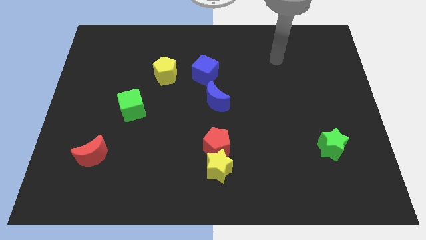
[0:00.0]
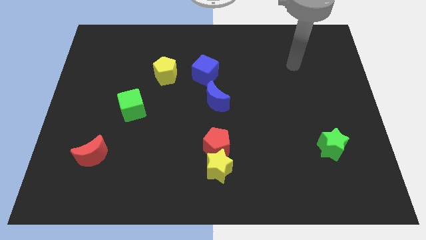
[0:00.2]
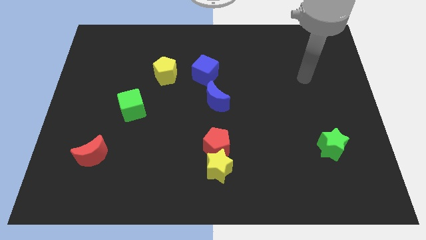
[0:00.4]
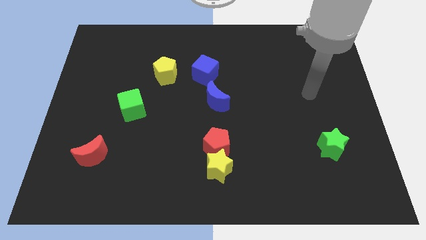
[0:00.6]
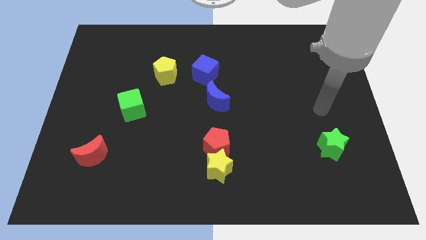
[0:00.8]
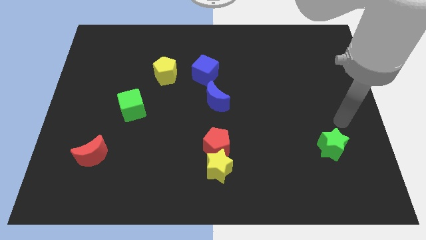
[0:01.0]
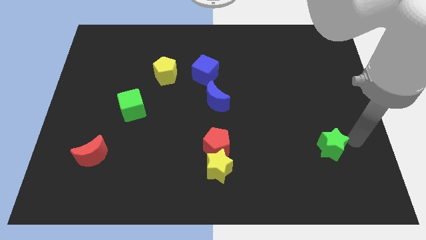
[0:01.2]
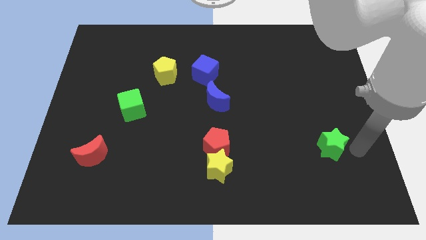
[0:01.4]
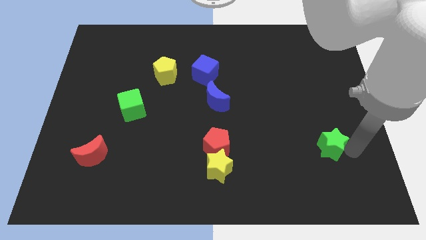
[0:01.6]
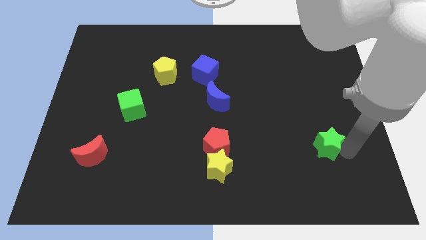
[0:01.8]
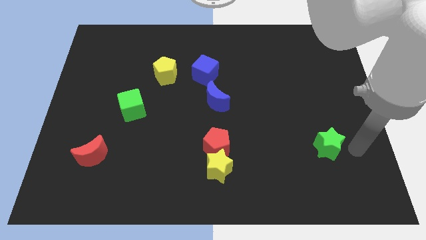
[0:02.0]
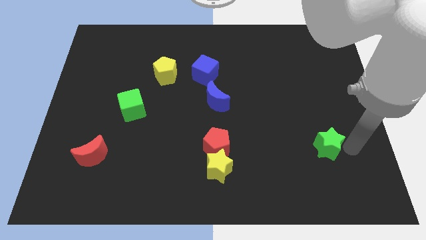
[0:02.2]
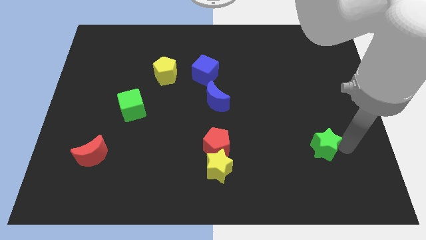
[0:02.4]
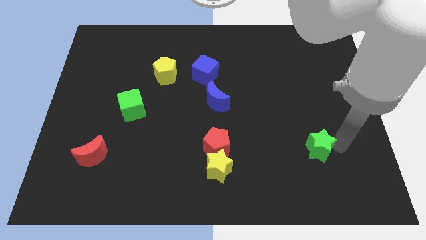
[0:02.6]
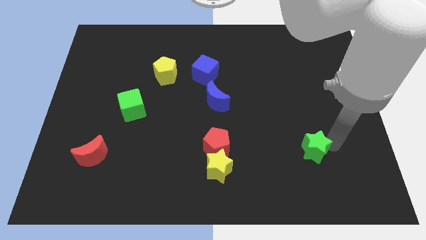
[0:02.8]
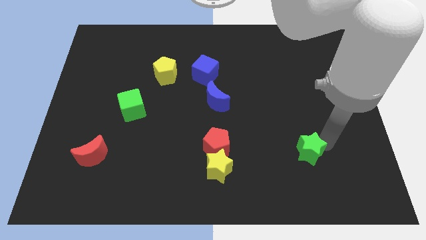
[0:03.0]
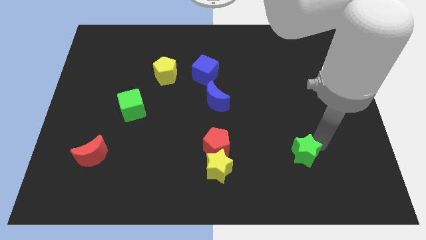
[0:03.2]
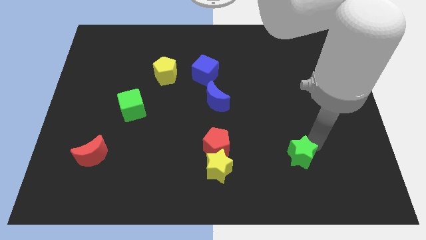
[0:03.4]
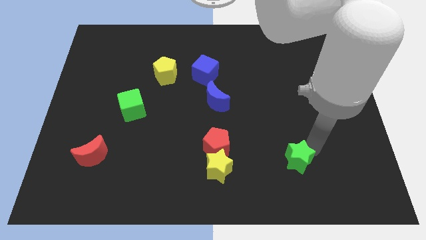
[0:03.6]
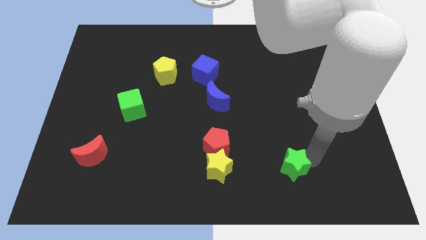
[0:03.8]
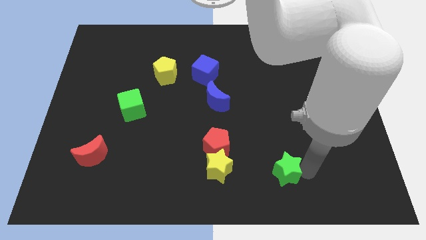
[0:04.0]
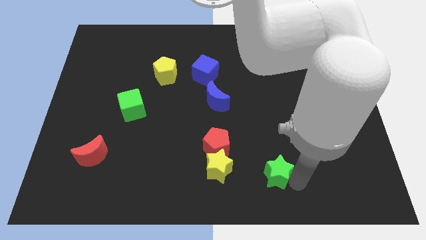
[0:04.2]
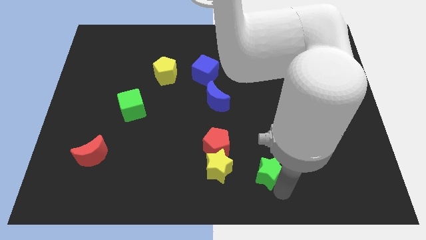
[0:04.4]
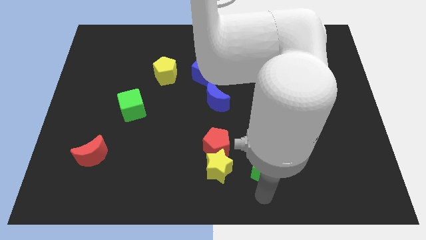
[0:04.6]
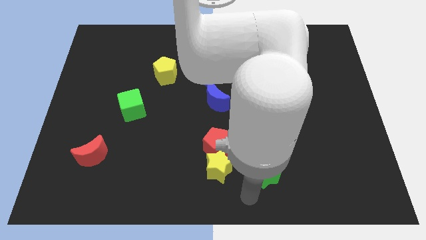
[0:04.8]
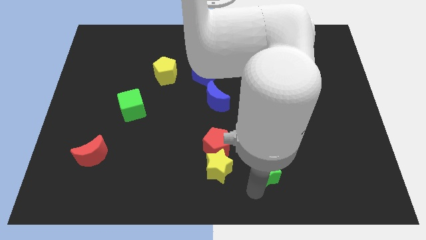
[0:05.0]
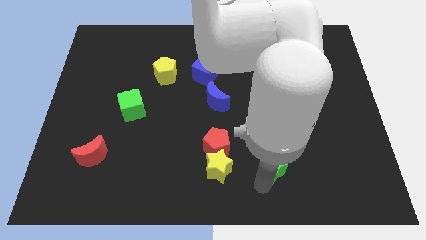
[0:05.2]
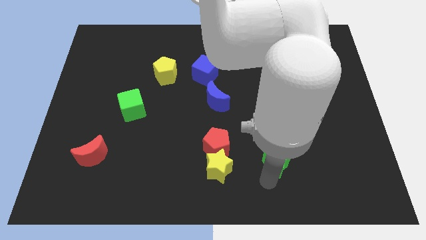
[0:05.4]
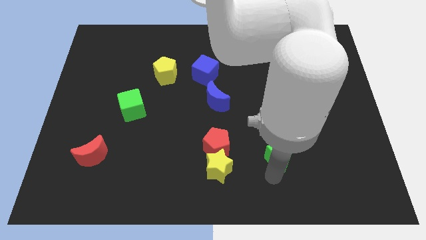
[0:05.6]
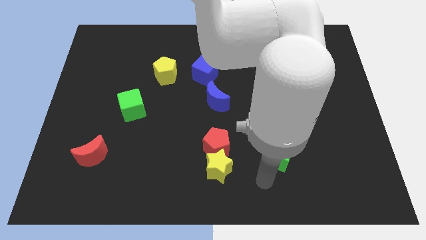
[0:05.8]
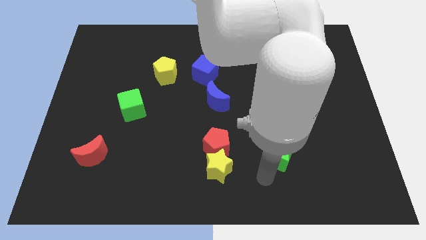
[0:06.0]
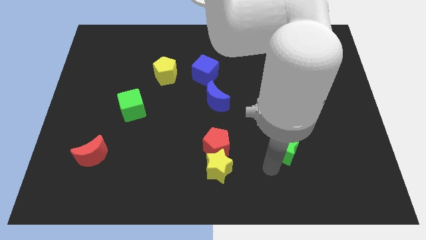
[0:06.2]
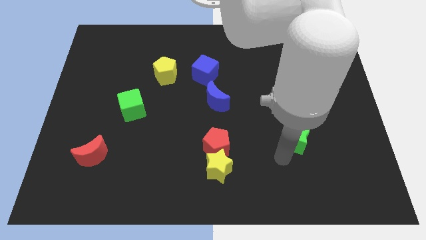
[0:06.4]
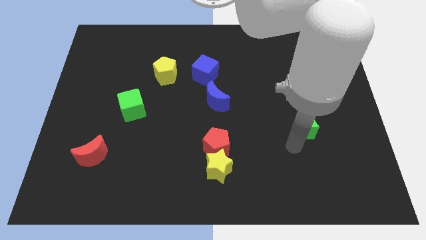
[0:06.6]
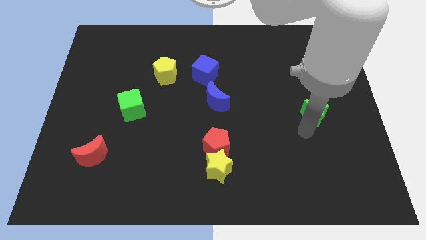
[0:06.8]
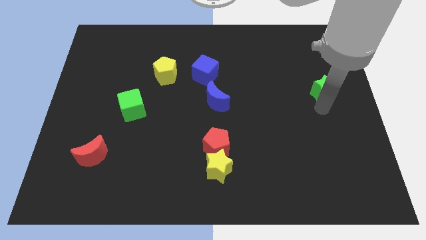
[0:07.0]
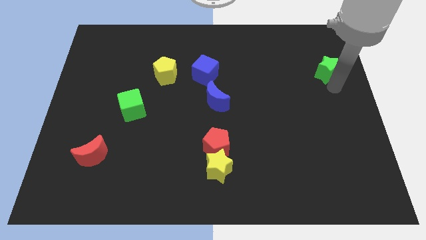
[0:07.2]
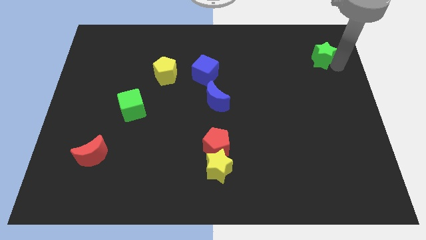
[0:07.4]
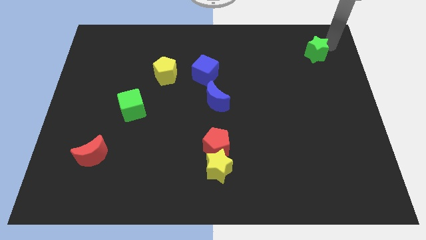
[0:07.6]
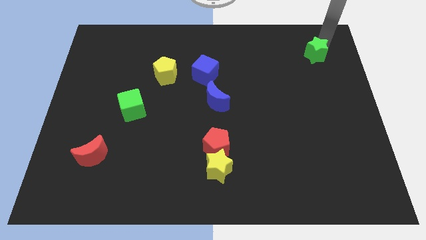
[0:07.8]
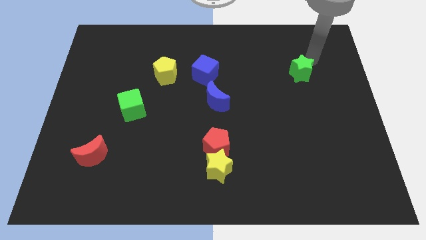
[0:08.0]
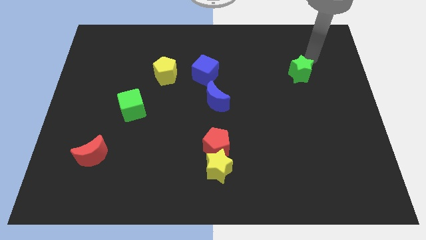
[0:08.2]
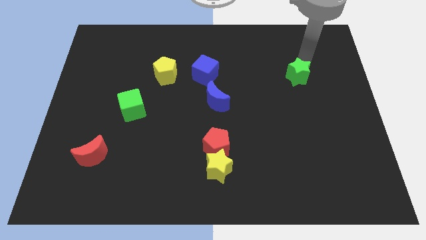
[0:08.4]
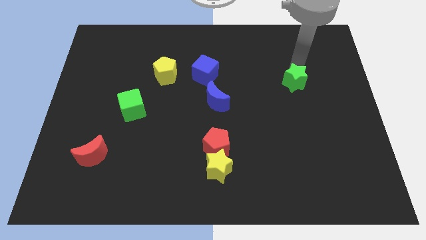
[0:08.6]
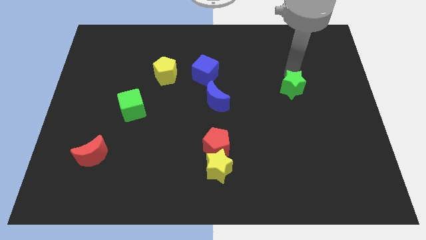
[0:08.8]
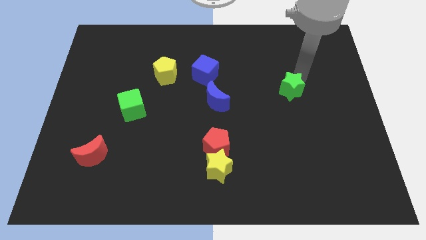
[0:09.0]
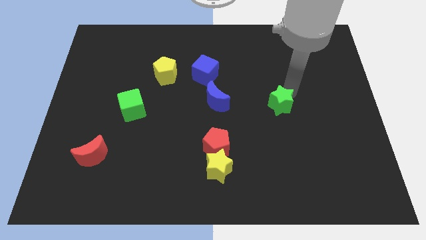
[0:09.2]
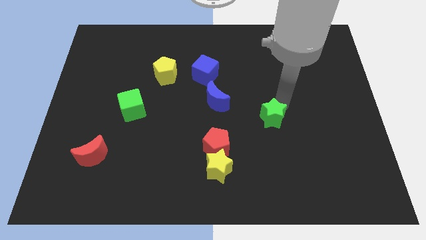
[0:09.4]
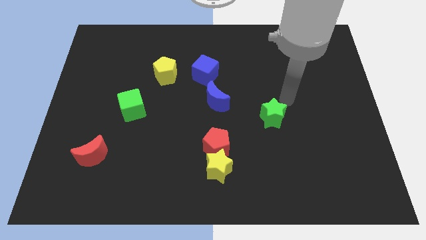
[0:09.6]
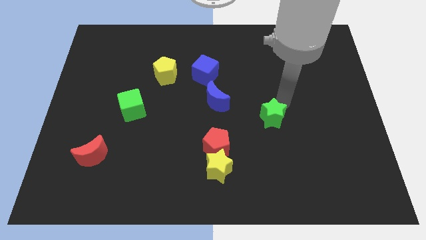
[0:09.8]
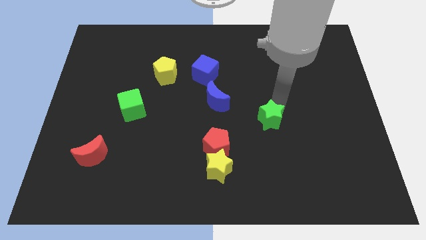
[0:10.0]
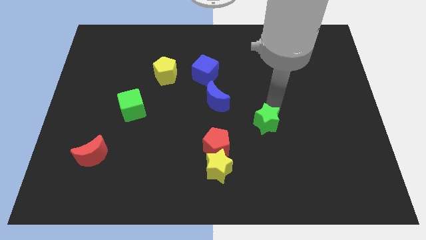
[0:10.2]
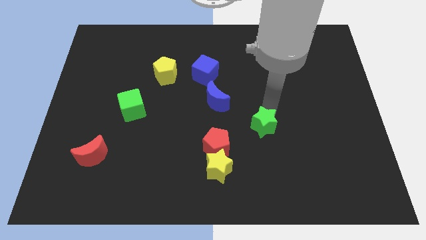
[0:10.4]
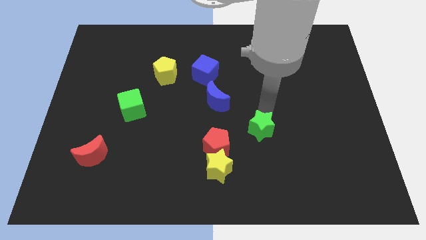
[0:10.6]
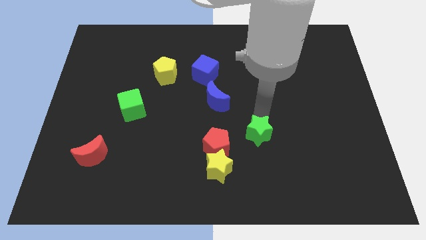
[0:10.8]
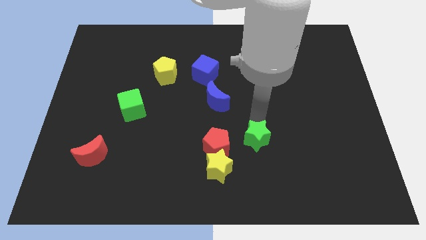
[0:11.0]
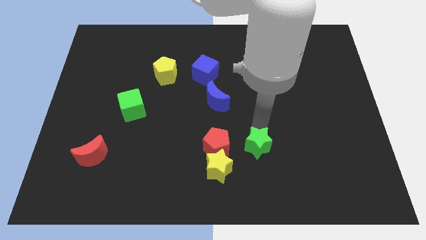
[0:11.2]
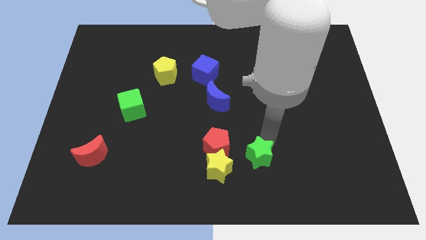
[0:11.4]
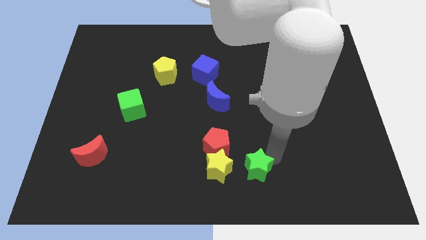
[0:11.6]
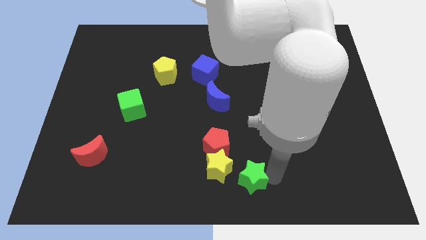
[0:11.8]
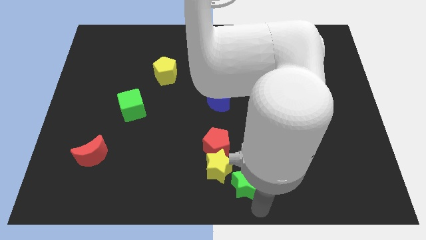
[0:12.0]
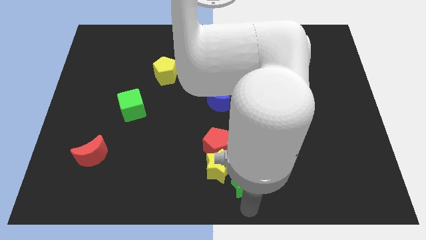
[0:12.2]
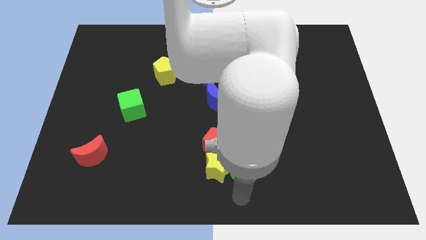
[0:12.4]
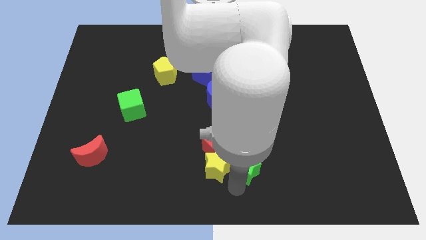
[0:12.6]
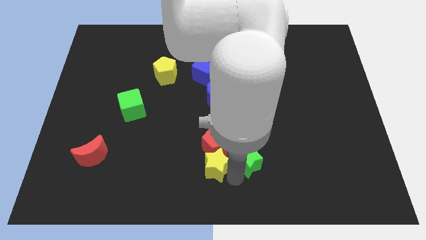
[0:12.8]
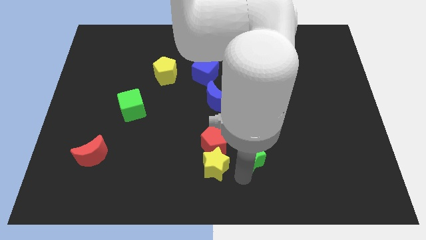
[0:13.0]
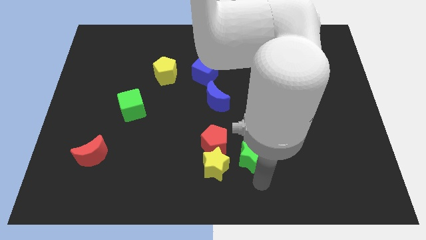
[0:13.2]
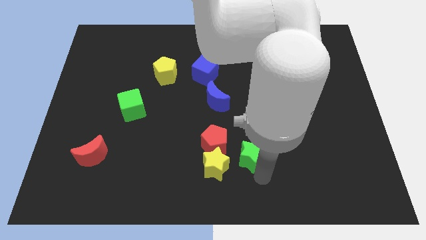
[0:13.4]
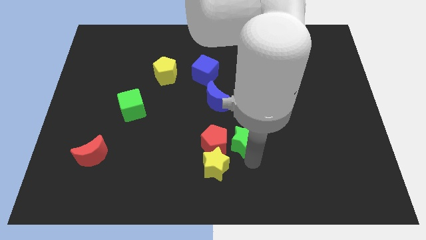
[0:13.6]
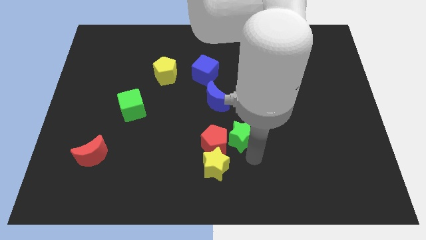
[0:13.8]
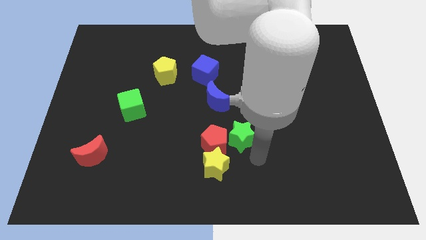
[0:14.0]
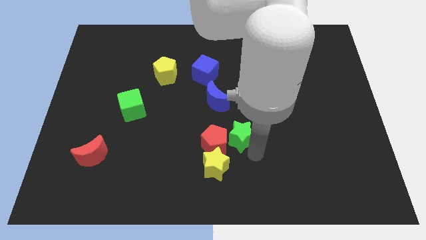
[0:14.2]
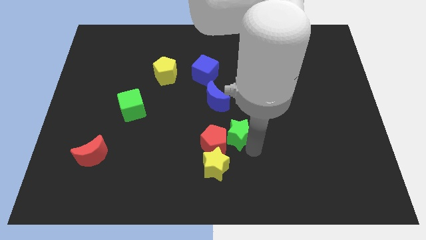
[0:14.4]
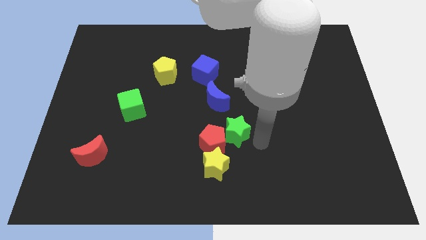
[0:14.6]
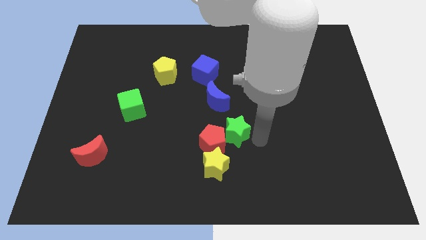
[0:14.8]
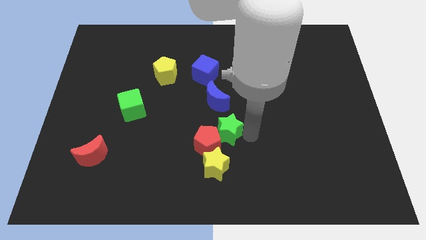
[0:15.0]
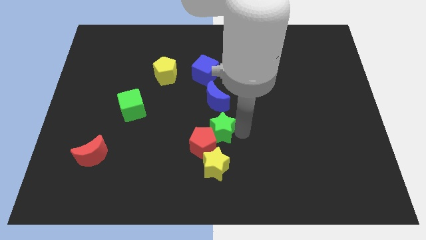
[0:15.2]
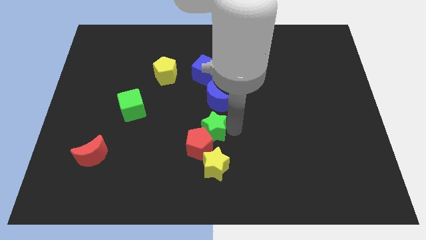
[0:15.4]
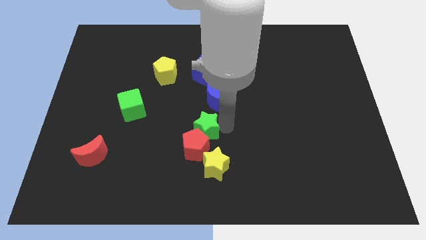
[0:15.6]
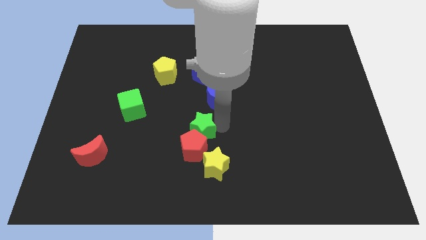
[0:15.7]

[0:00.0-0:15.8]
push the green star diagonally up and to the left of the red pentagon

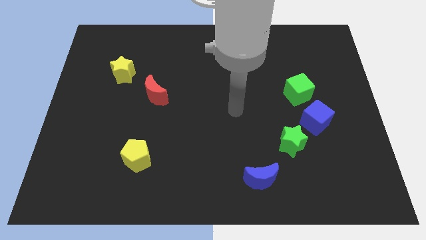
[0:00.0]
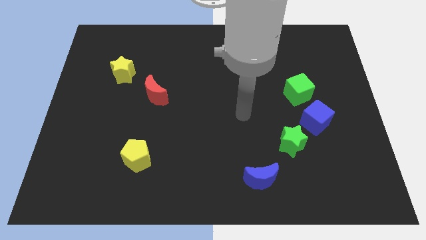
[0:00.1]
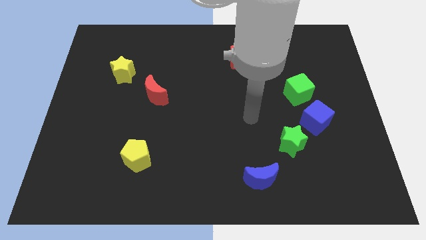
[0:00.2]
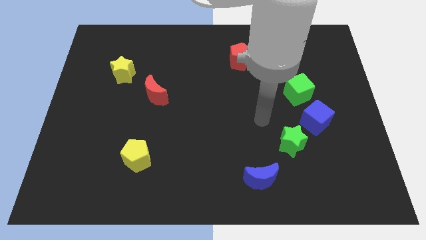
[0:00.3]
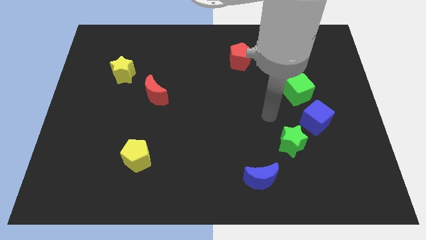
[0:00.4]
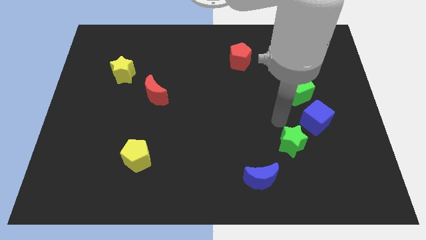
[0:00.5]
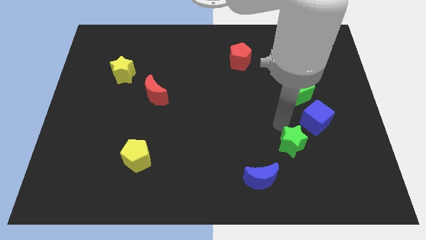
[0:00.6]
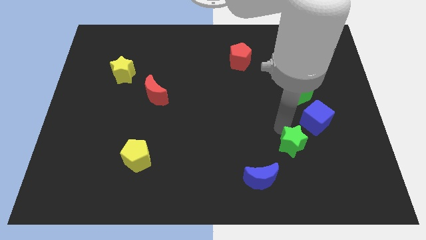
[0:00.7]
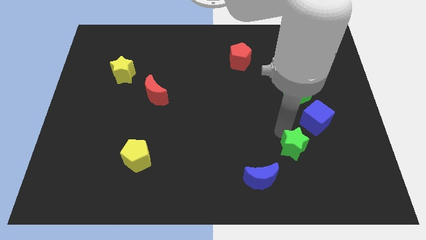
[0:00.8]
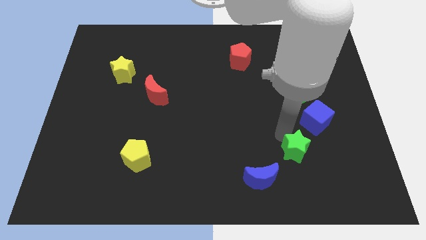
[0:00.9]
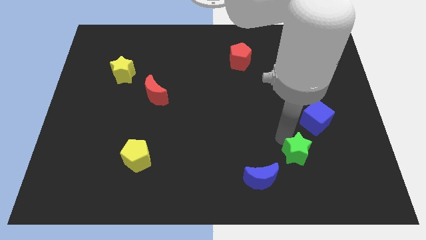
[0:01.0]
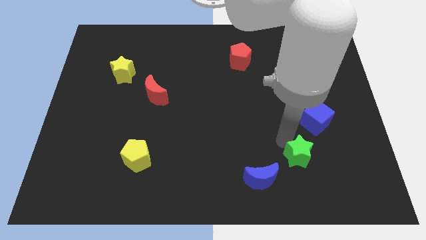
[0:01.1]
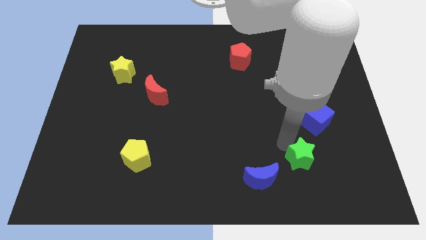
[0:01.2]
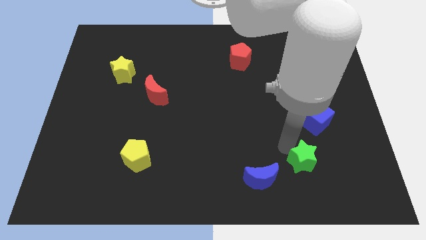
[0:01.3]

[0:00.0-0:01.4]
push the green star to the right of the blue moon
